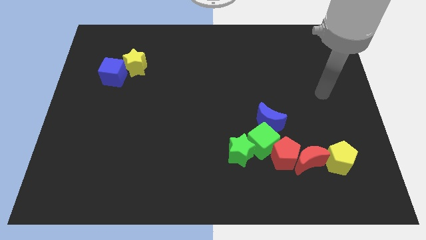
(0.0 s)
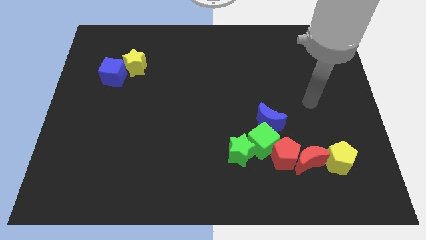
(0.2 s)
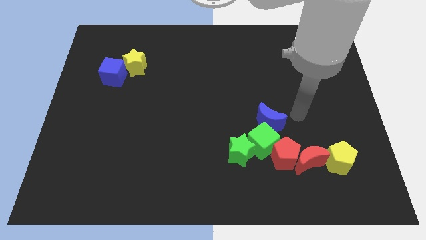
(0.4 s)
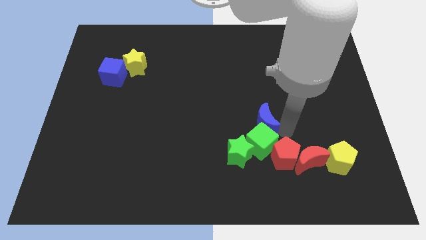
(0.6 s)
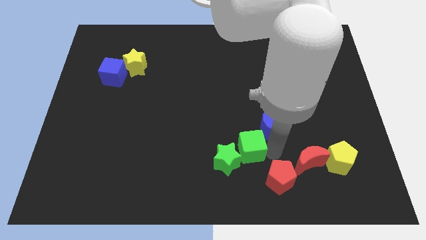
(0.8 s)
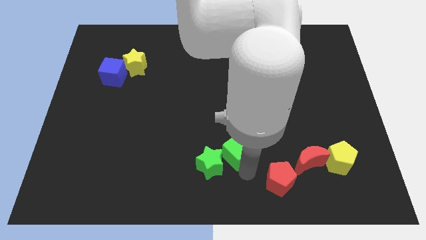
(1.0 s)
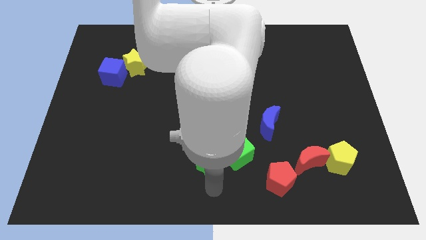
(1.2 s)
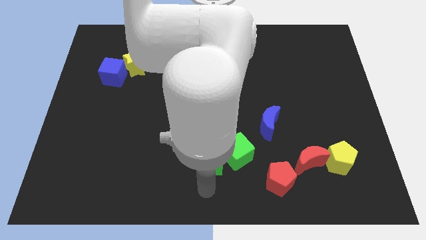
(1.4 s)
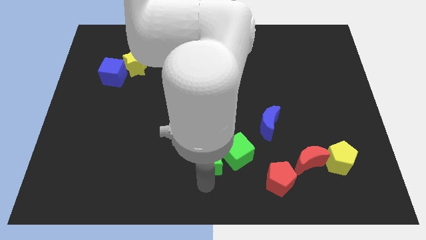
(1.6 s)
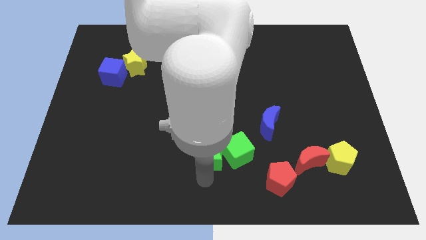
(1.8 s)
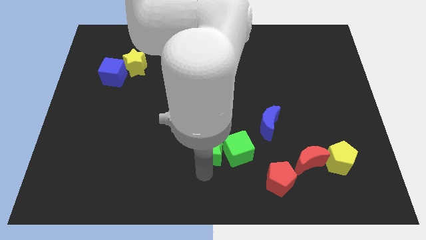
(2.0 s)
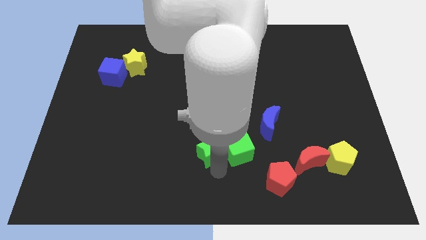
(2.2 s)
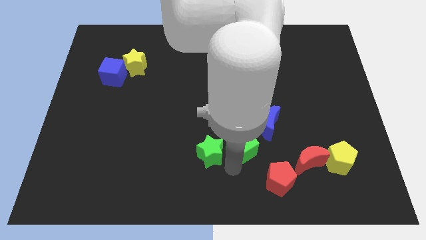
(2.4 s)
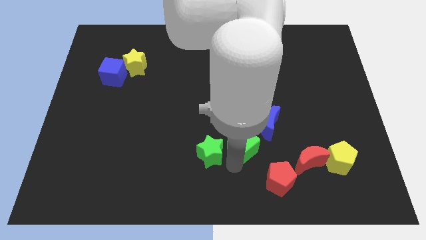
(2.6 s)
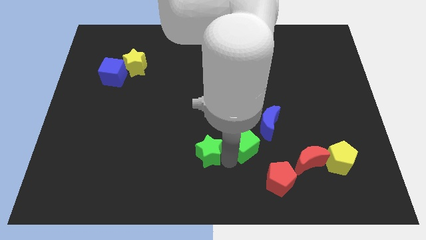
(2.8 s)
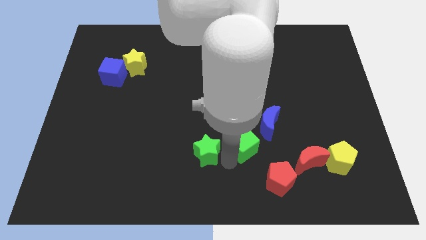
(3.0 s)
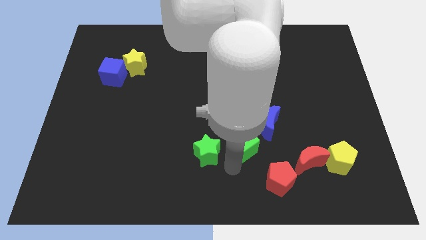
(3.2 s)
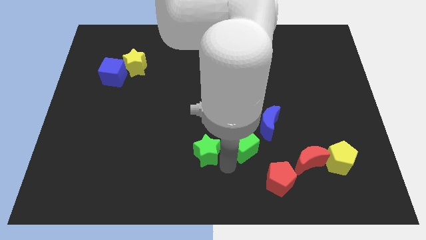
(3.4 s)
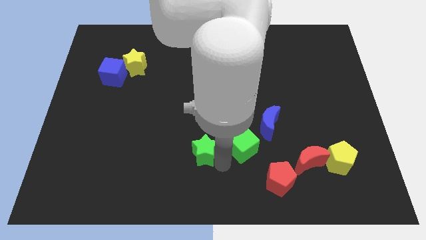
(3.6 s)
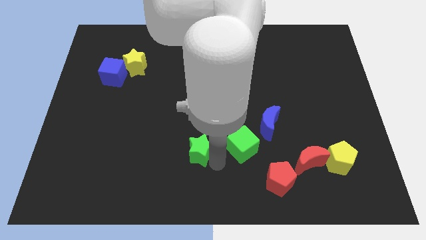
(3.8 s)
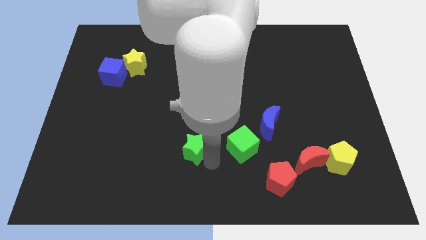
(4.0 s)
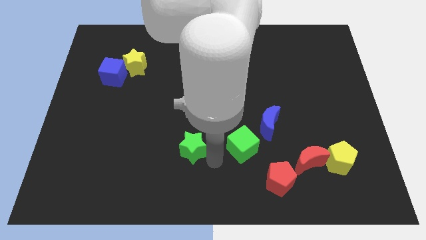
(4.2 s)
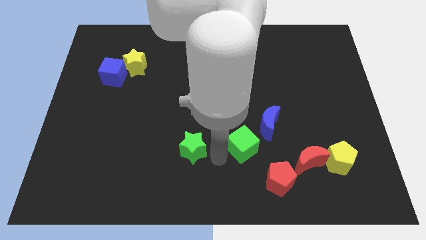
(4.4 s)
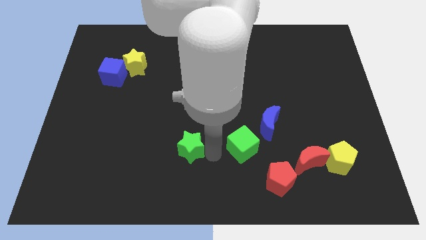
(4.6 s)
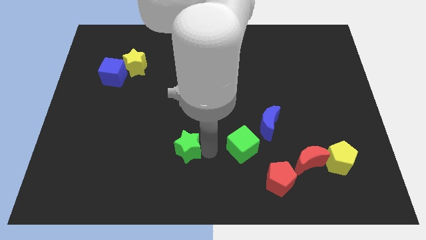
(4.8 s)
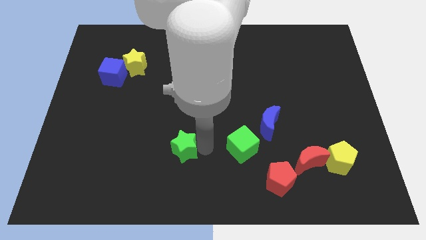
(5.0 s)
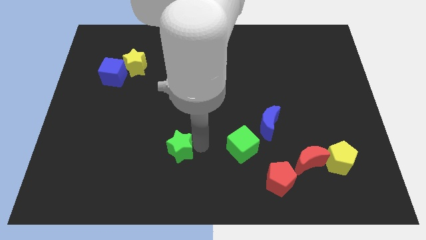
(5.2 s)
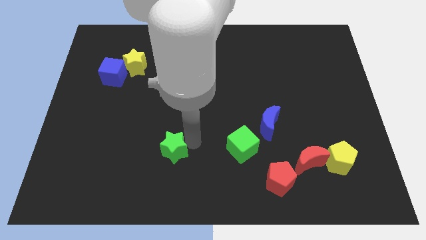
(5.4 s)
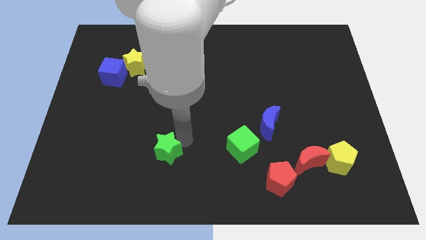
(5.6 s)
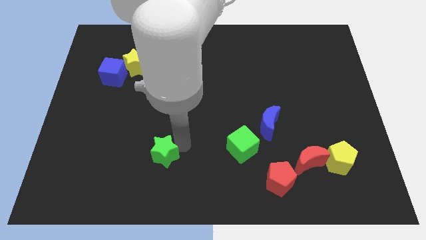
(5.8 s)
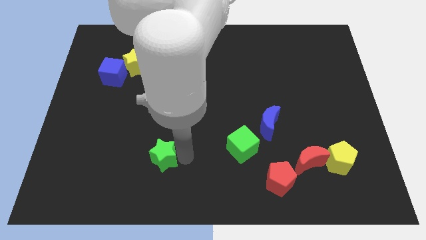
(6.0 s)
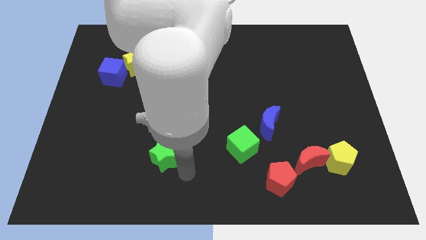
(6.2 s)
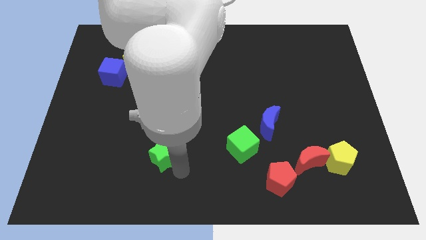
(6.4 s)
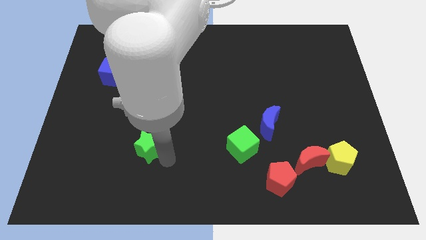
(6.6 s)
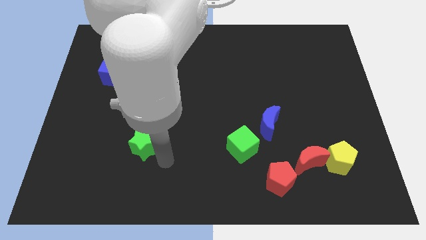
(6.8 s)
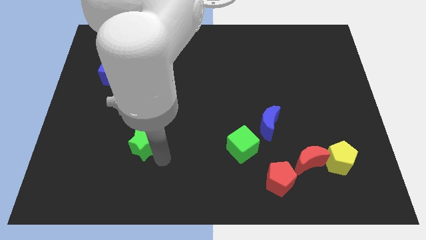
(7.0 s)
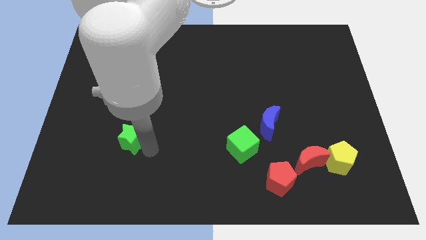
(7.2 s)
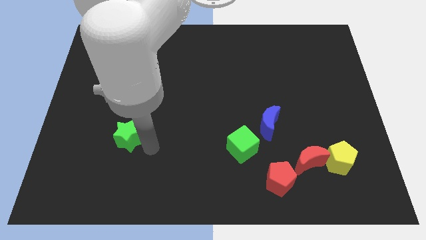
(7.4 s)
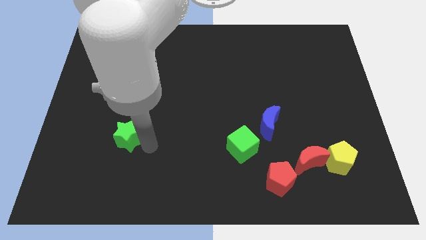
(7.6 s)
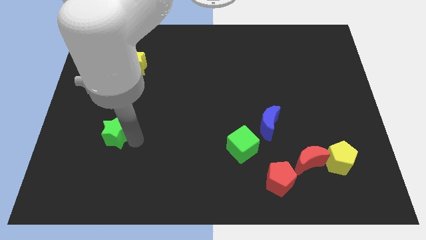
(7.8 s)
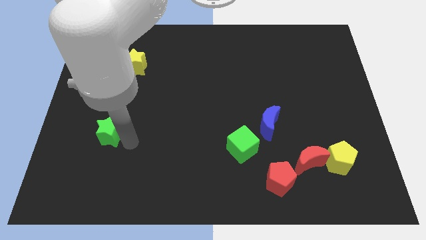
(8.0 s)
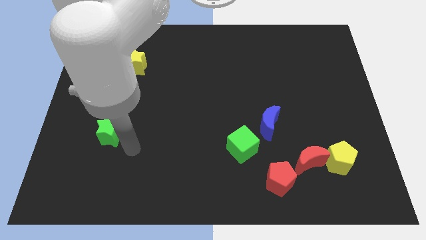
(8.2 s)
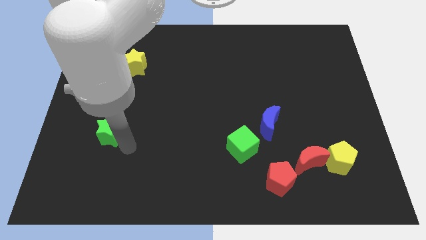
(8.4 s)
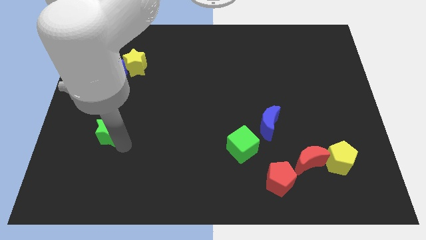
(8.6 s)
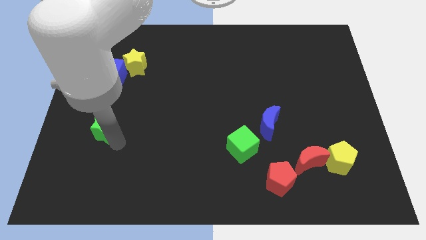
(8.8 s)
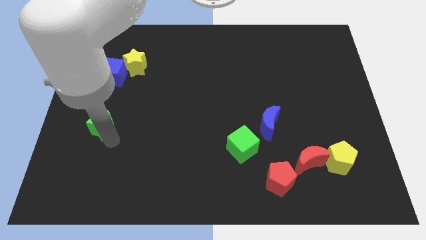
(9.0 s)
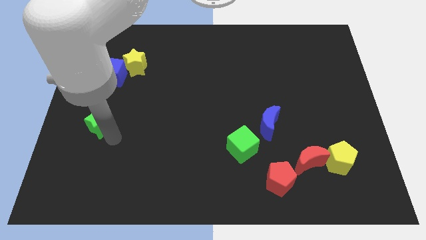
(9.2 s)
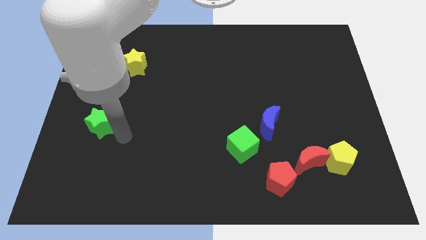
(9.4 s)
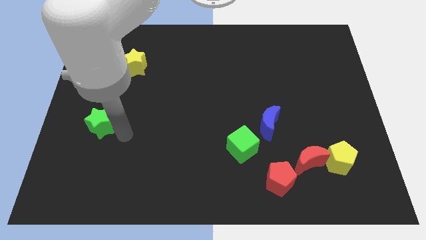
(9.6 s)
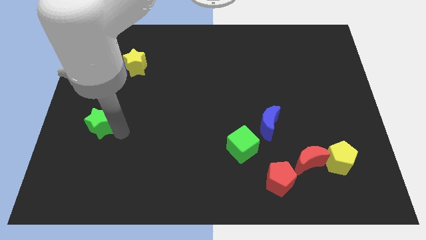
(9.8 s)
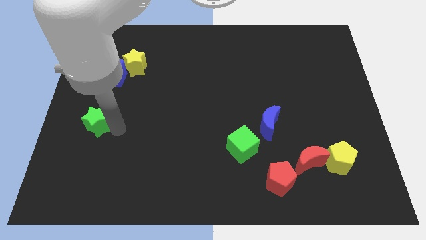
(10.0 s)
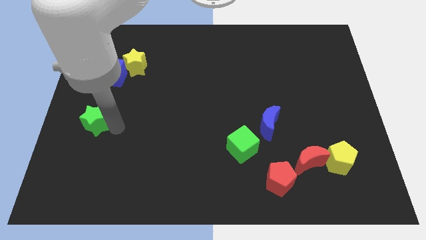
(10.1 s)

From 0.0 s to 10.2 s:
push the green star to the left side

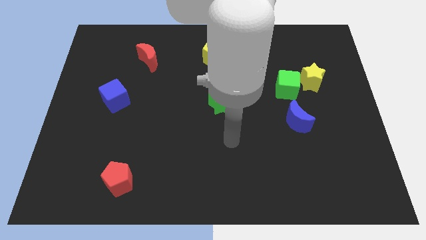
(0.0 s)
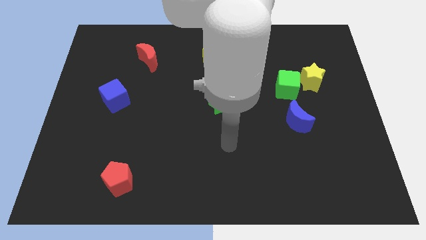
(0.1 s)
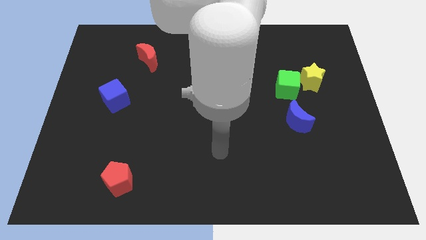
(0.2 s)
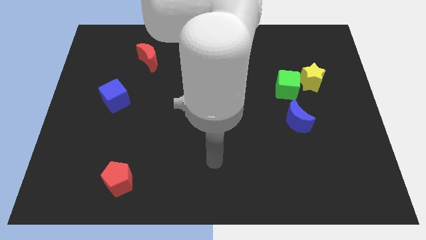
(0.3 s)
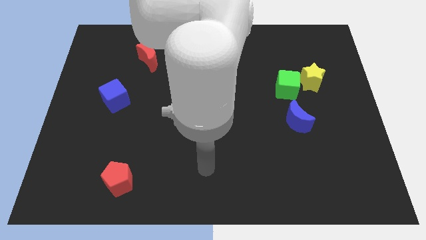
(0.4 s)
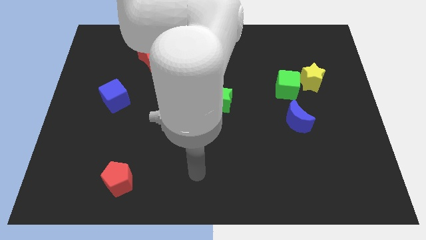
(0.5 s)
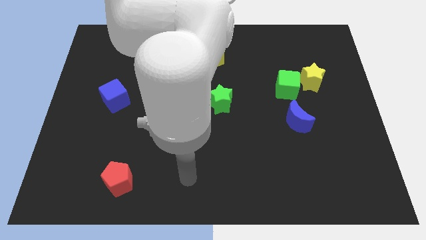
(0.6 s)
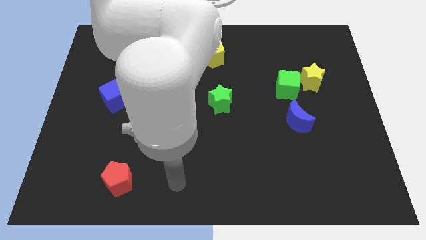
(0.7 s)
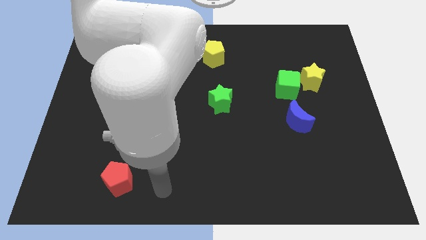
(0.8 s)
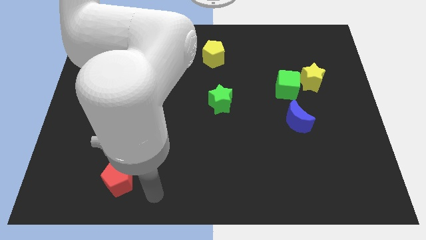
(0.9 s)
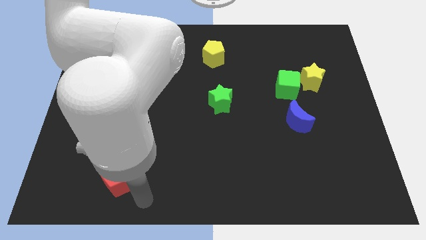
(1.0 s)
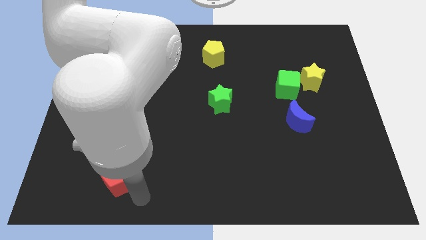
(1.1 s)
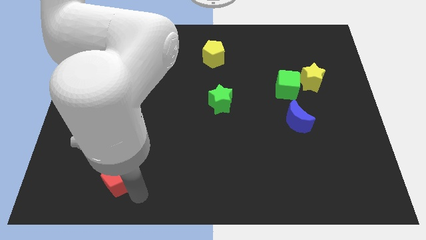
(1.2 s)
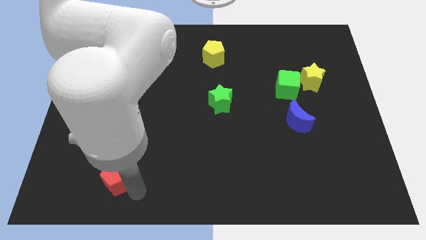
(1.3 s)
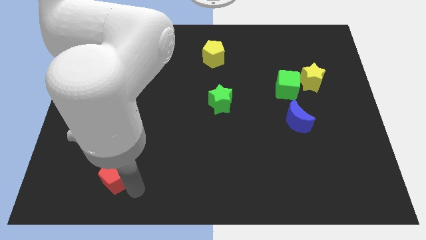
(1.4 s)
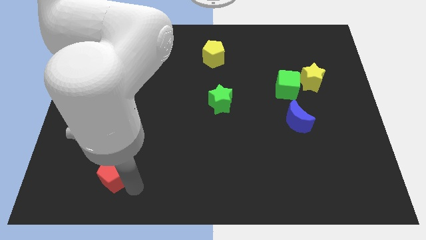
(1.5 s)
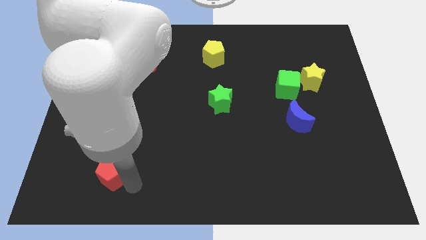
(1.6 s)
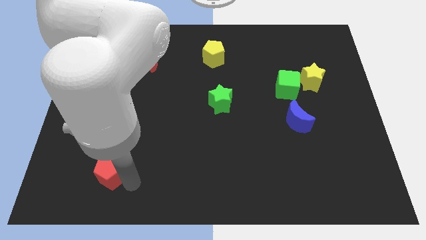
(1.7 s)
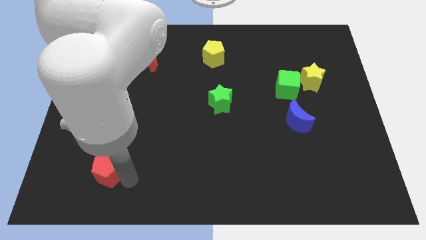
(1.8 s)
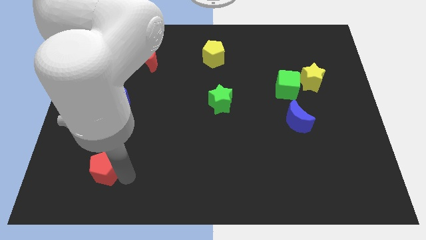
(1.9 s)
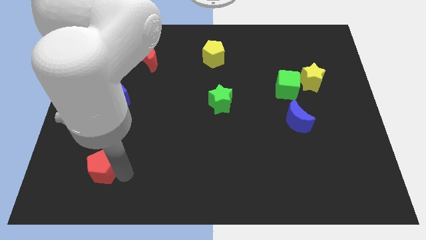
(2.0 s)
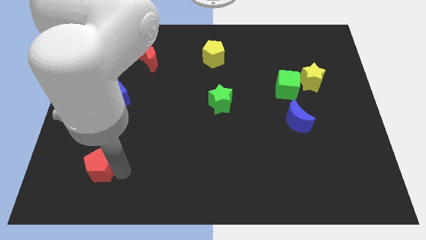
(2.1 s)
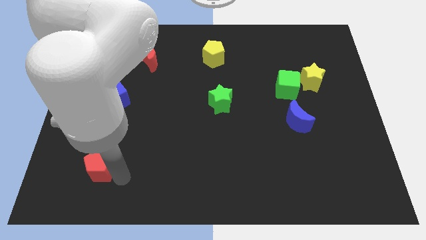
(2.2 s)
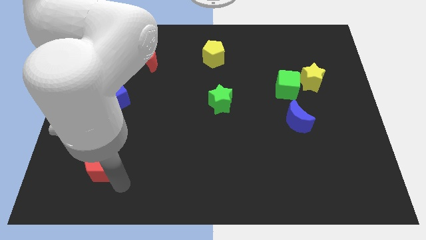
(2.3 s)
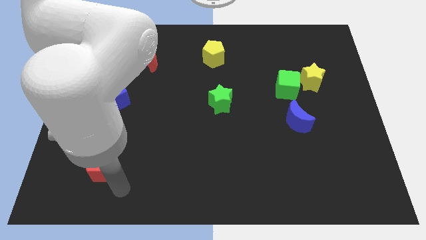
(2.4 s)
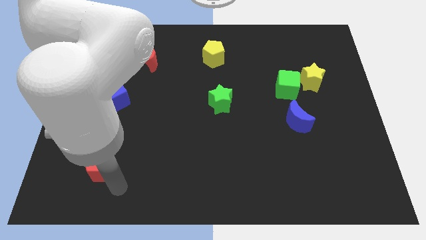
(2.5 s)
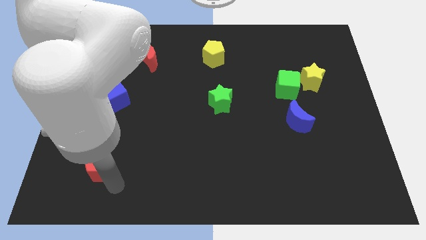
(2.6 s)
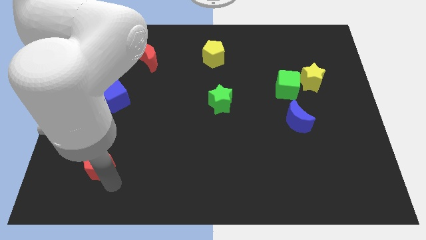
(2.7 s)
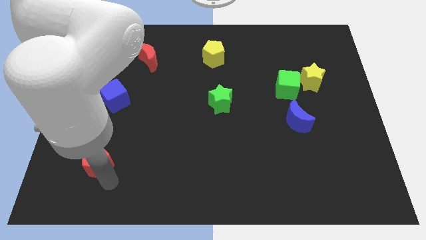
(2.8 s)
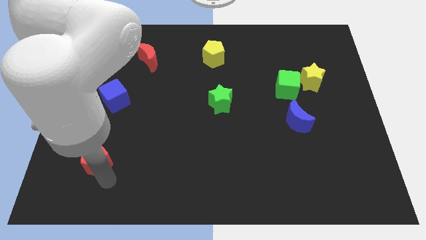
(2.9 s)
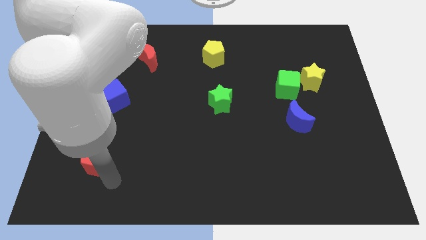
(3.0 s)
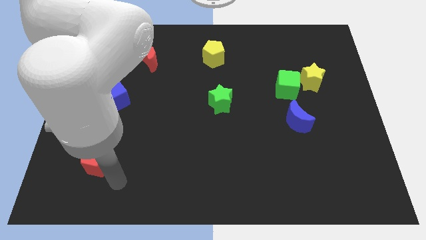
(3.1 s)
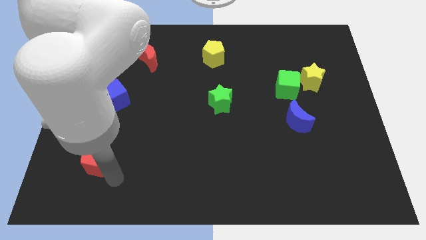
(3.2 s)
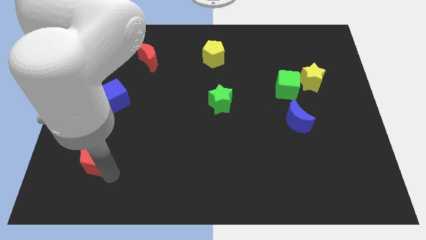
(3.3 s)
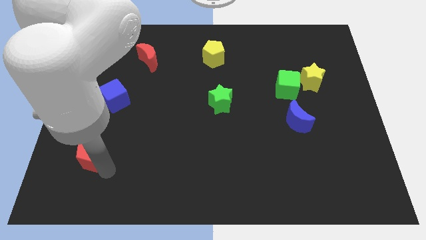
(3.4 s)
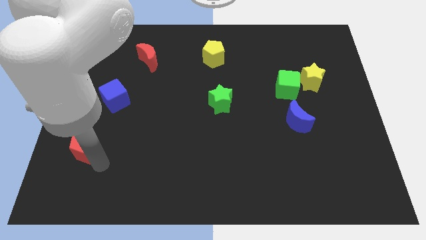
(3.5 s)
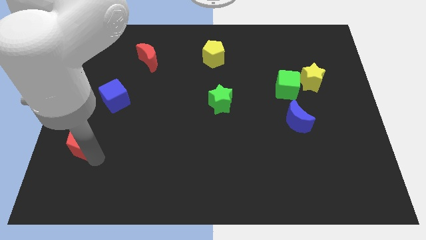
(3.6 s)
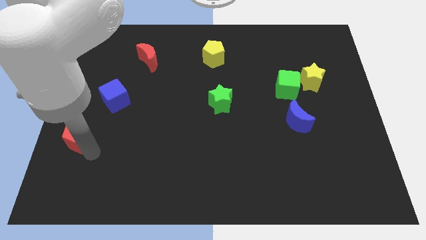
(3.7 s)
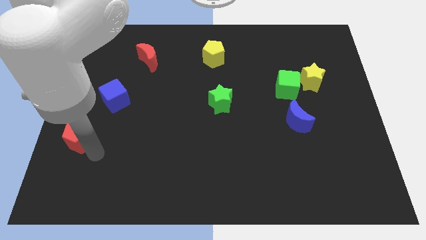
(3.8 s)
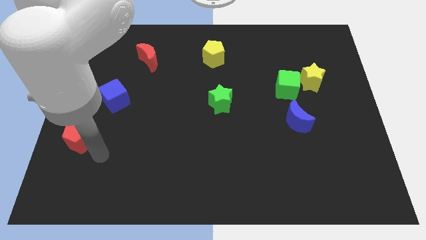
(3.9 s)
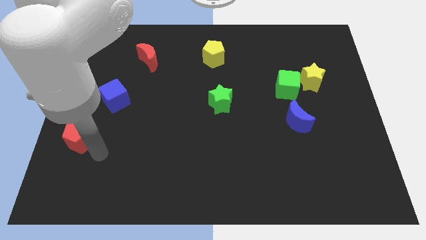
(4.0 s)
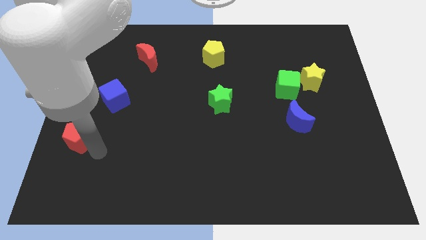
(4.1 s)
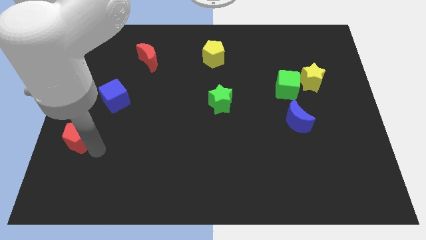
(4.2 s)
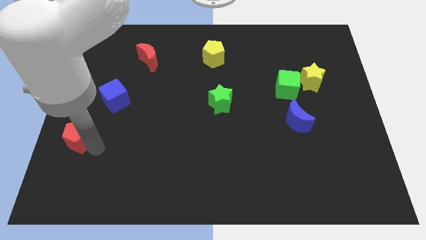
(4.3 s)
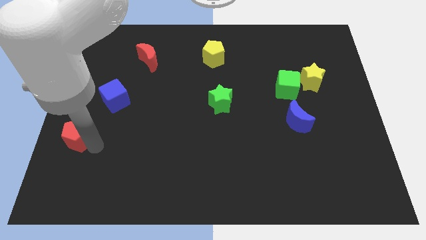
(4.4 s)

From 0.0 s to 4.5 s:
slide the red pentagon to the left side of the board
